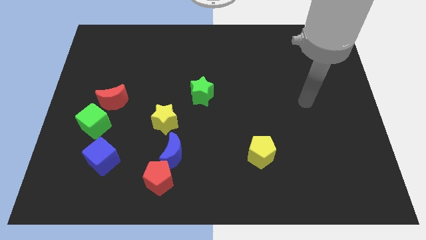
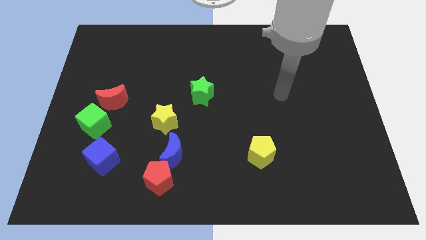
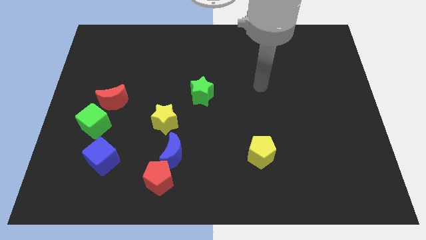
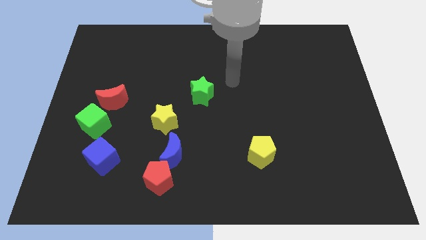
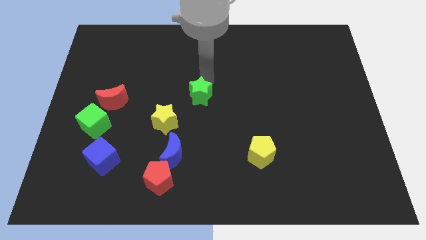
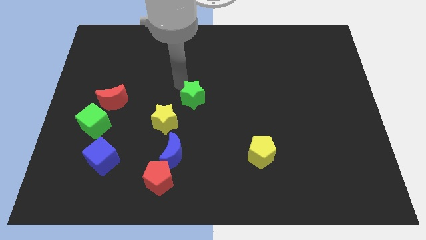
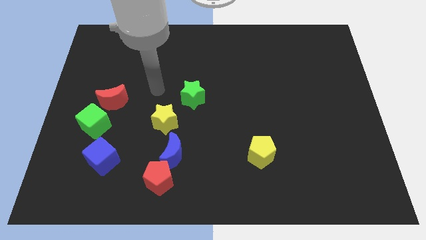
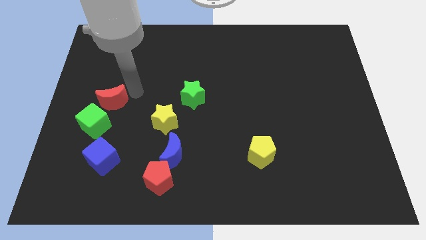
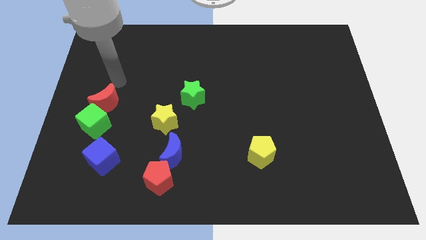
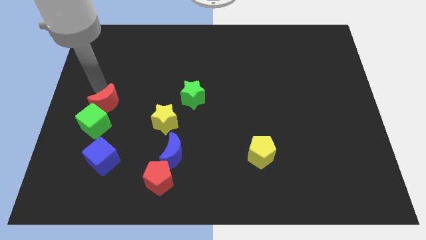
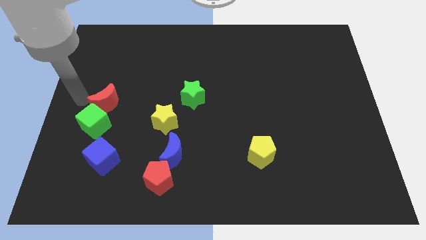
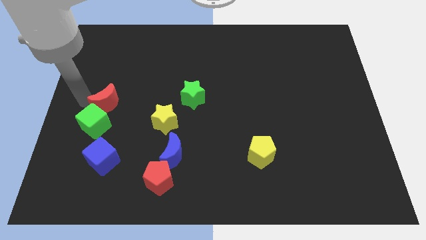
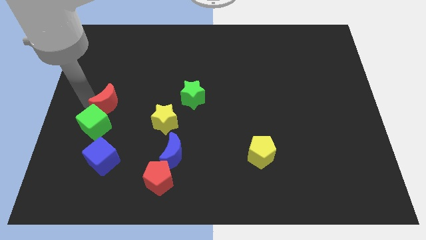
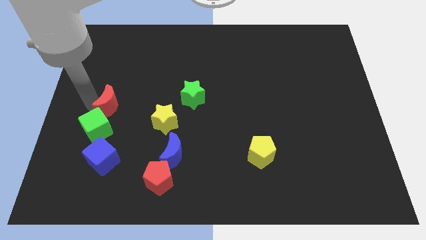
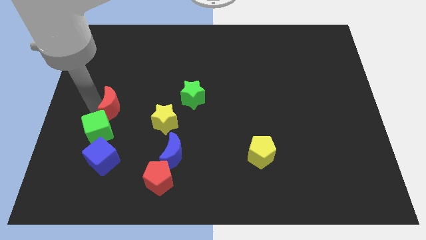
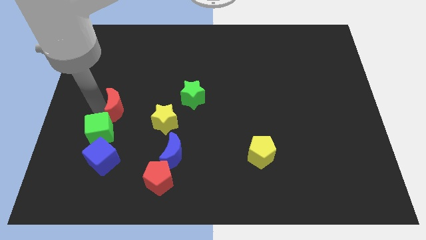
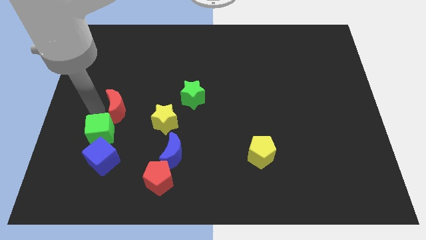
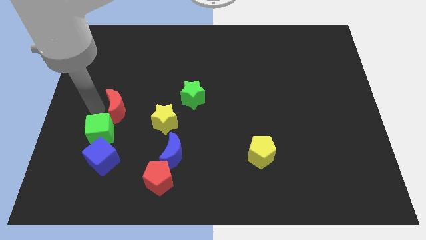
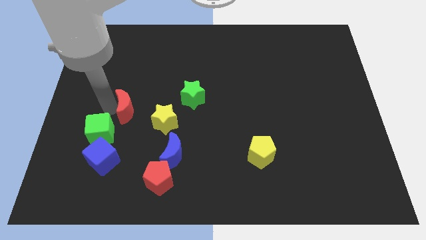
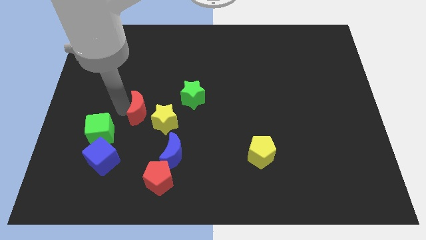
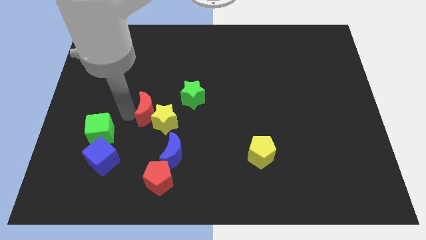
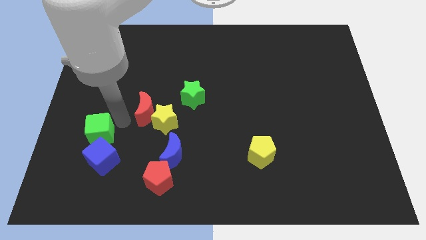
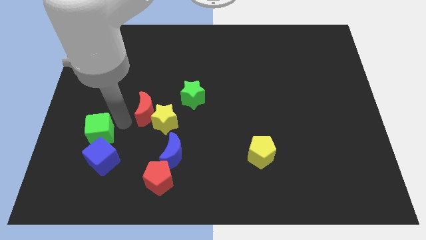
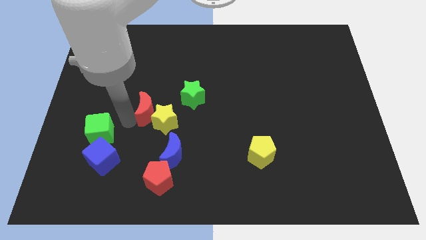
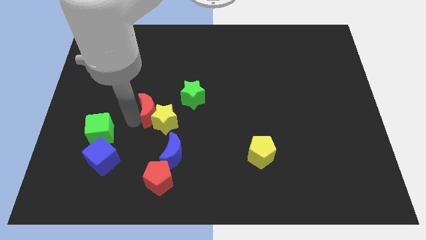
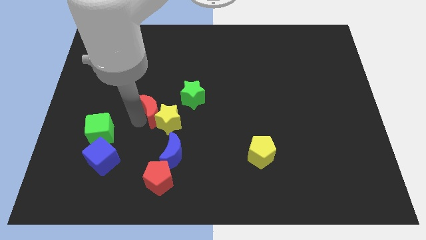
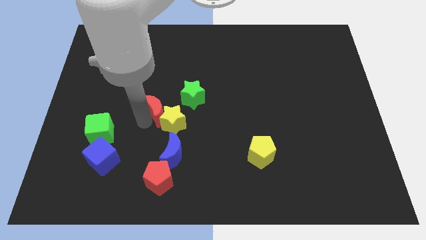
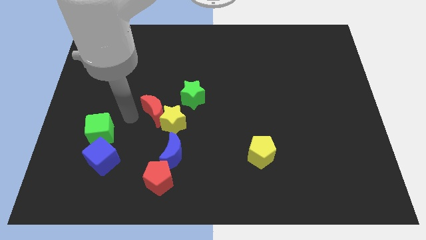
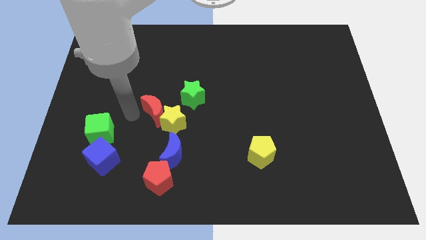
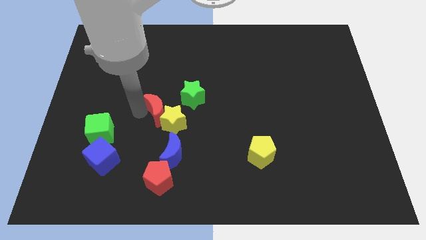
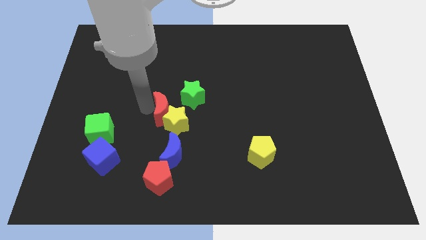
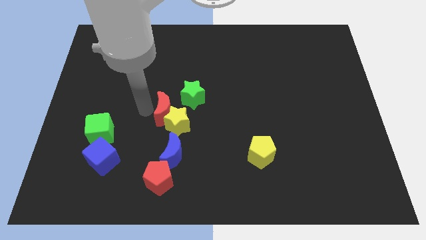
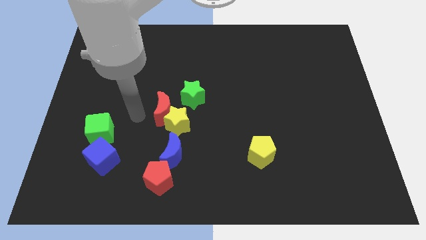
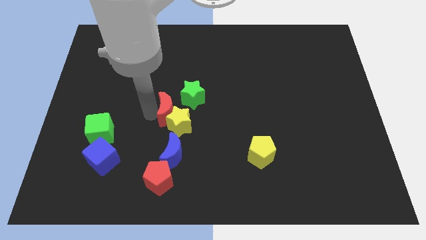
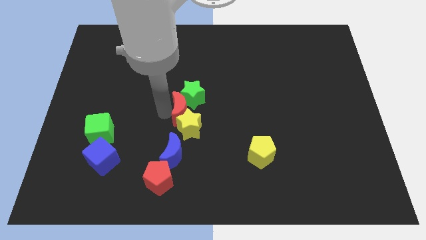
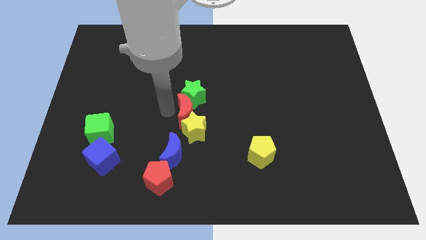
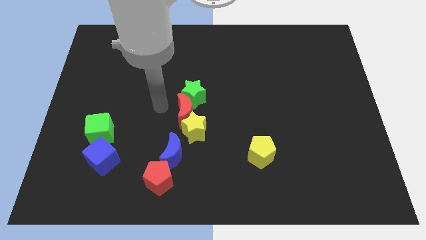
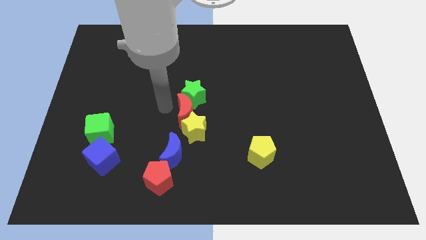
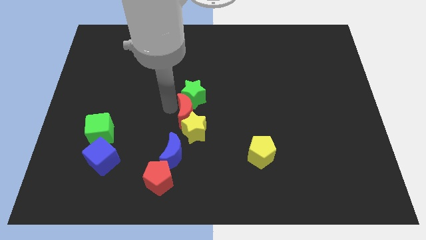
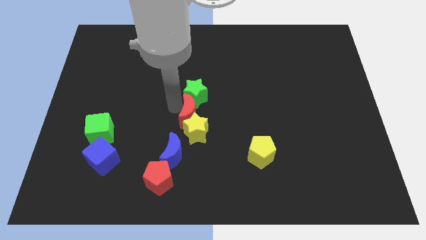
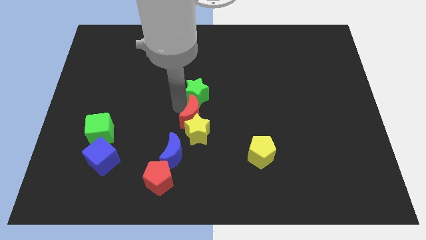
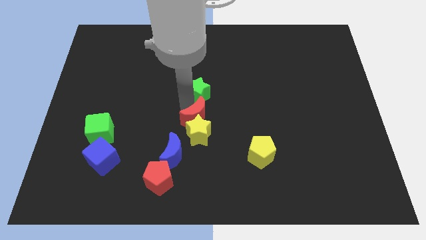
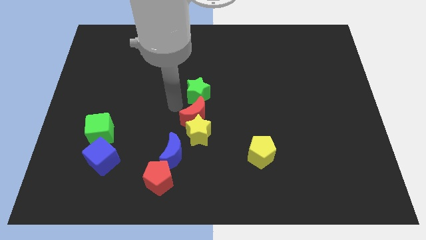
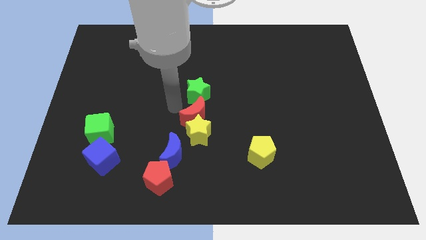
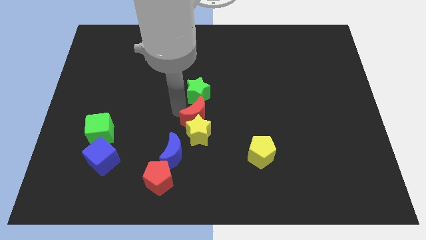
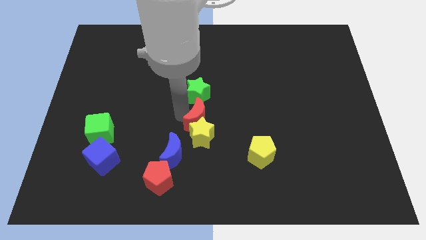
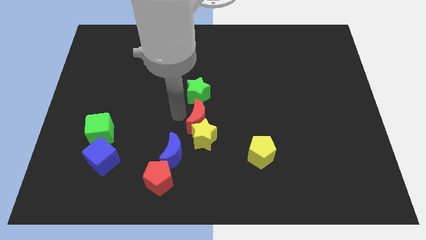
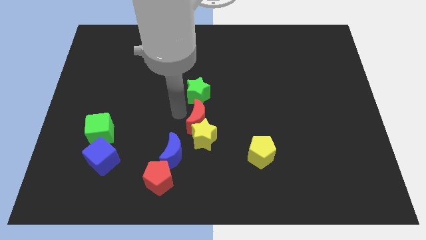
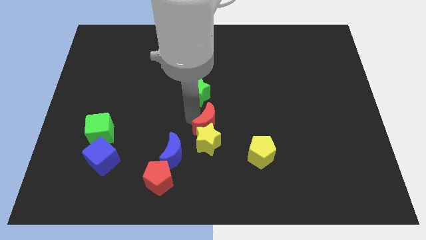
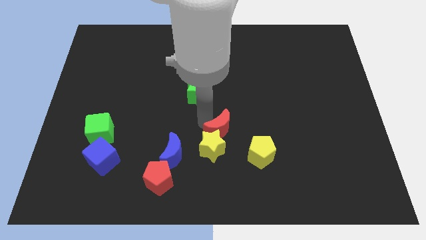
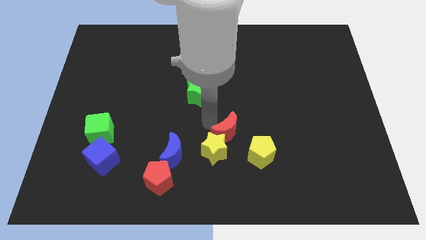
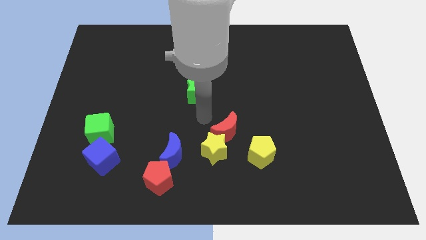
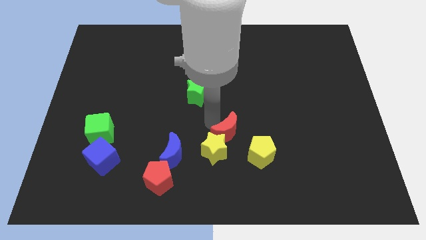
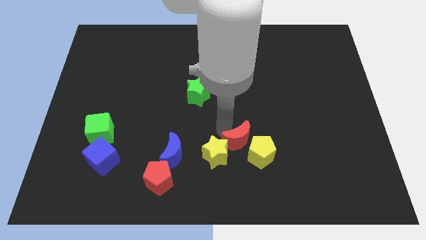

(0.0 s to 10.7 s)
push the red moon towards the yellow pentagon

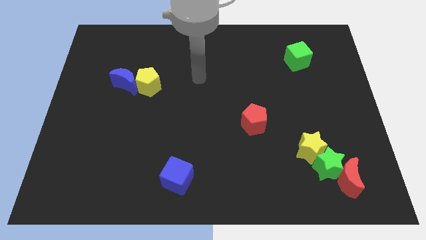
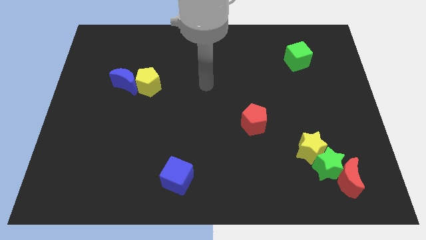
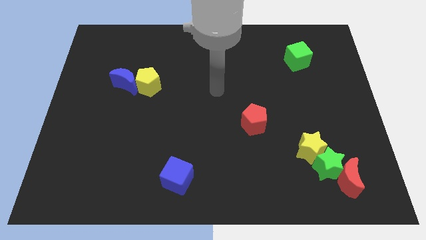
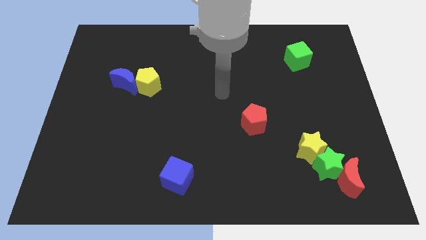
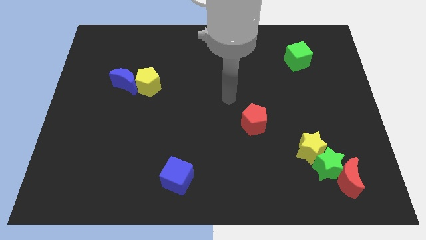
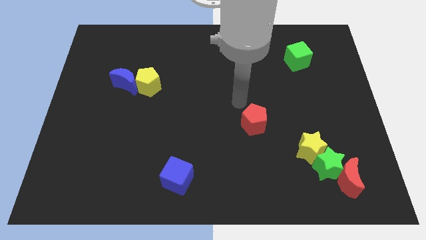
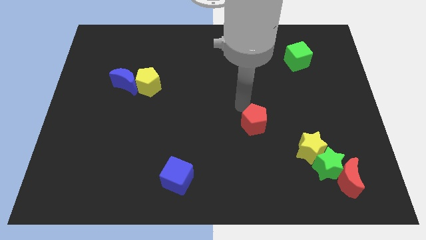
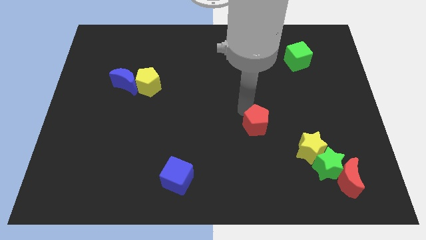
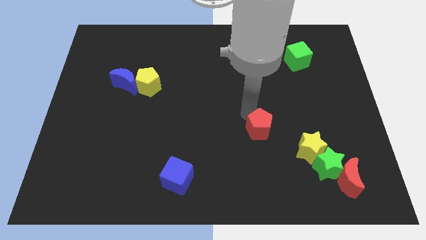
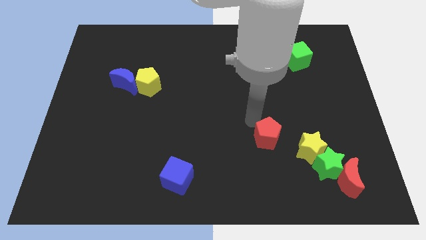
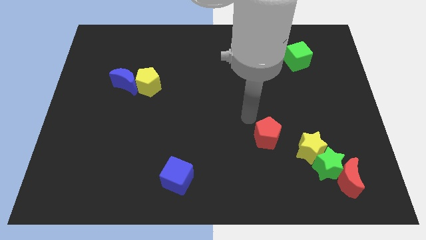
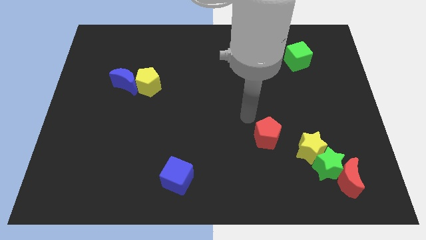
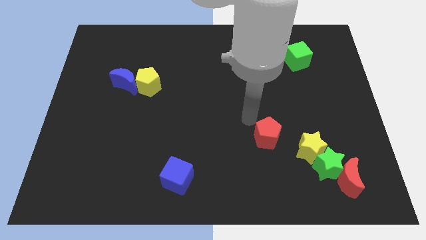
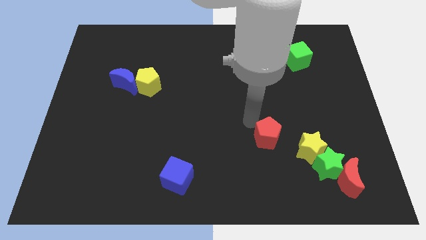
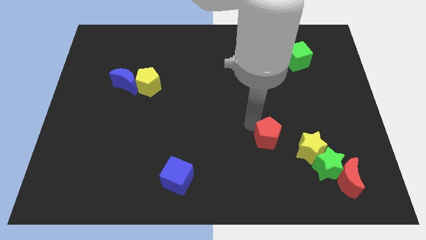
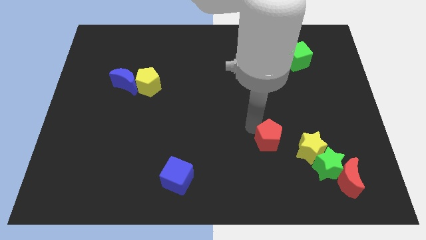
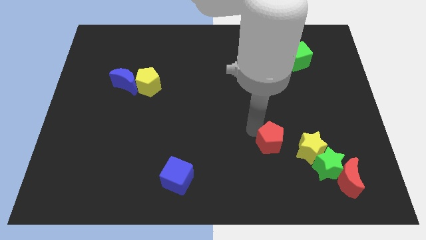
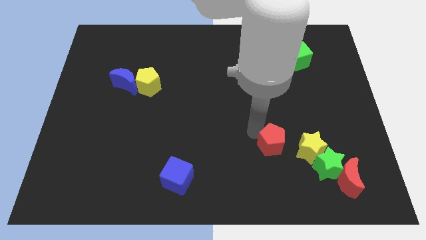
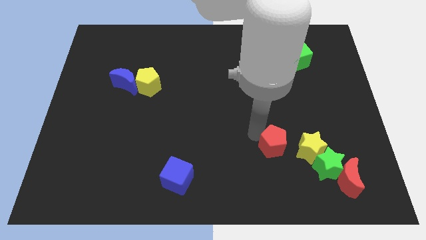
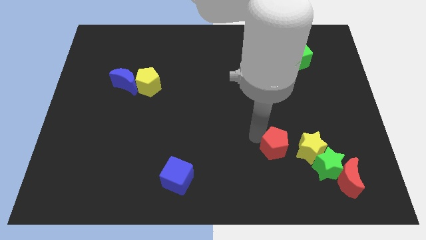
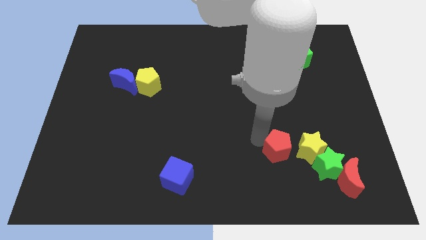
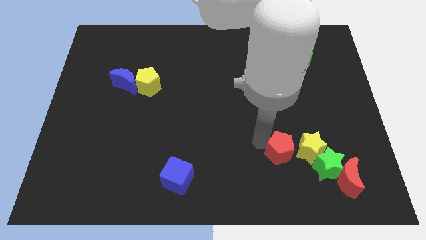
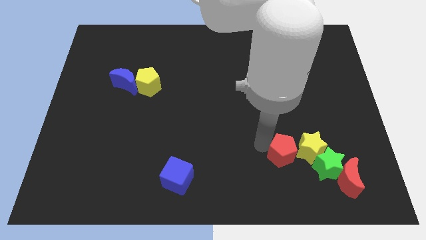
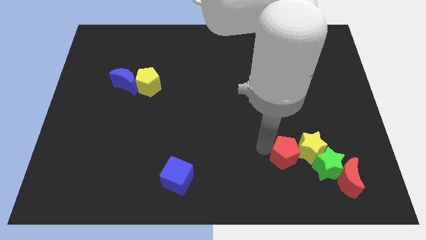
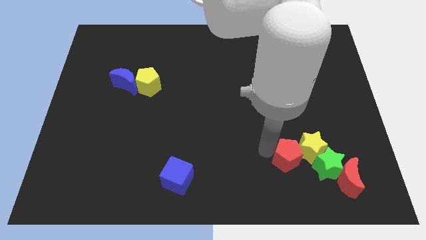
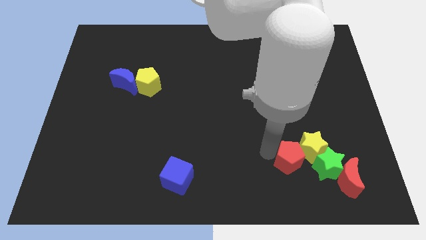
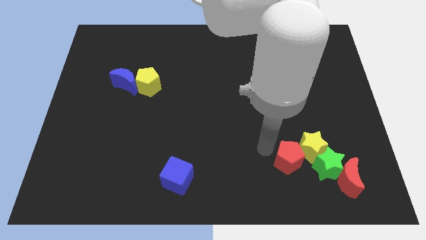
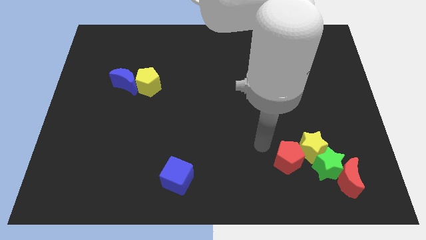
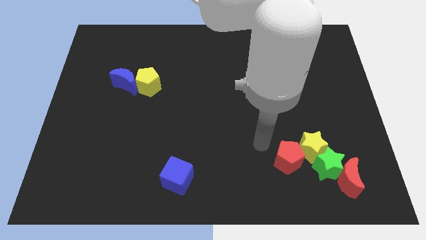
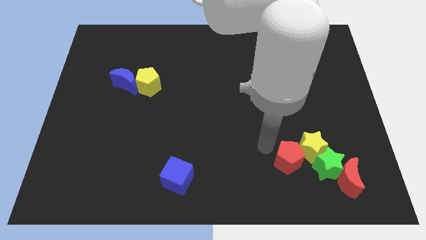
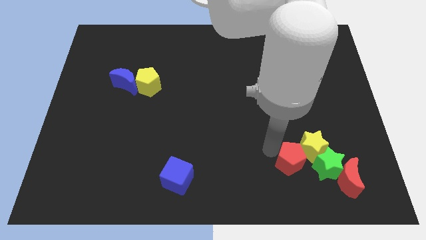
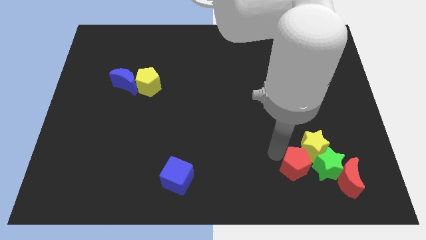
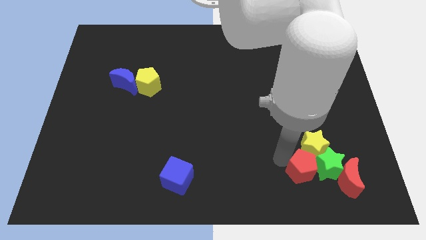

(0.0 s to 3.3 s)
move the red pentagon towards the green star
